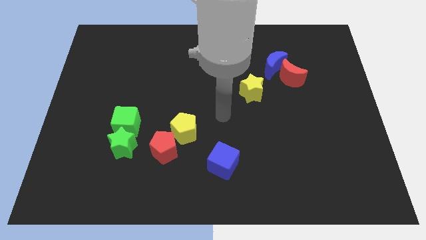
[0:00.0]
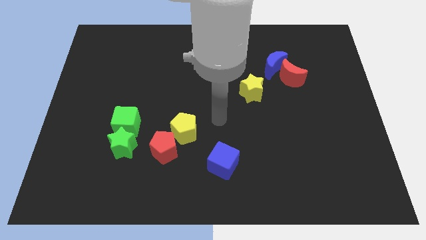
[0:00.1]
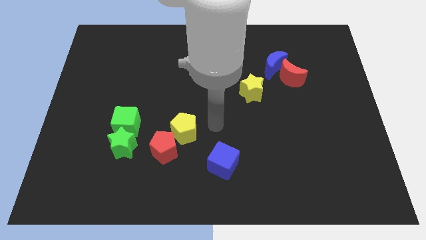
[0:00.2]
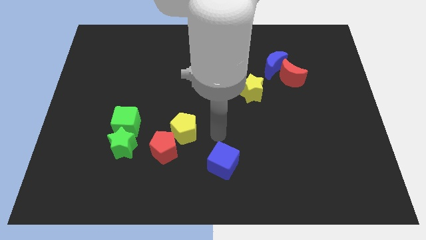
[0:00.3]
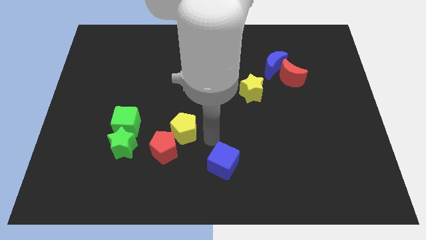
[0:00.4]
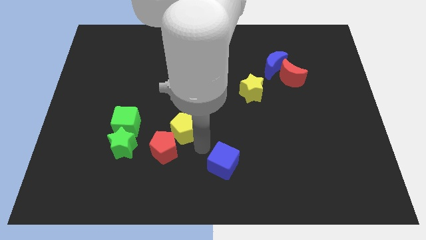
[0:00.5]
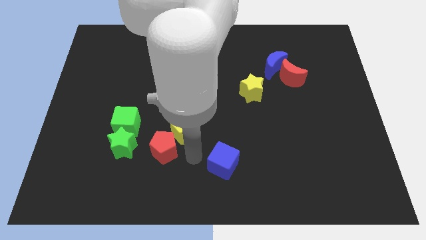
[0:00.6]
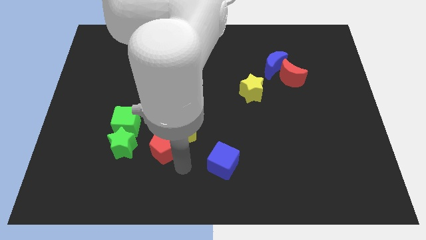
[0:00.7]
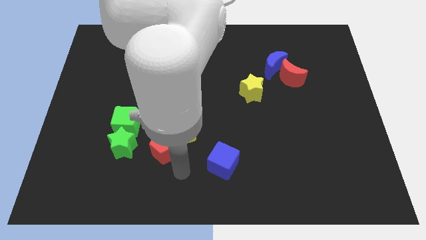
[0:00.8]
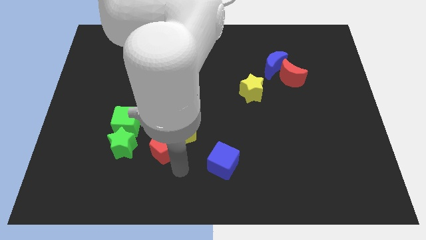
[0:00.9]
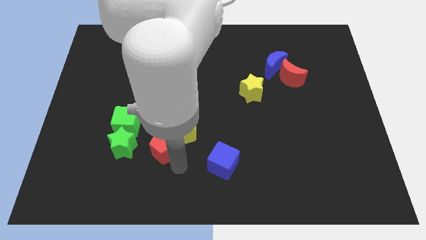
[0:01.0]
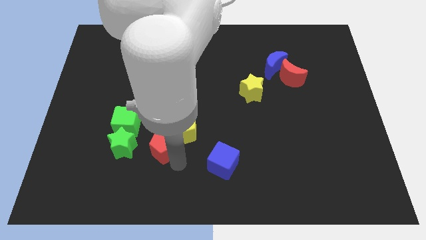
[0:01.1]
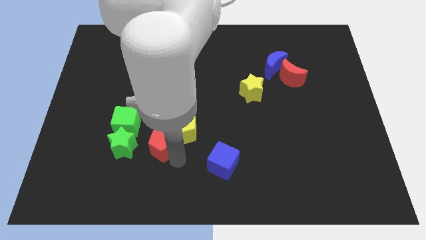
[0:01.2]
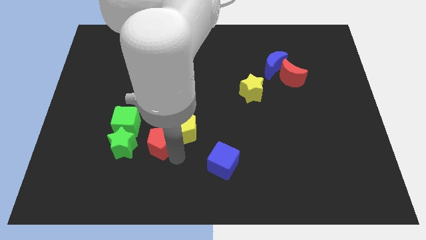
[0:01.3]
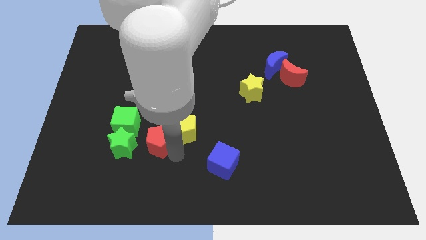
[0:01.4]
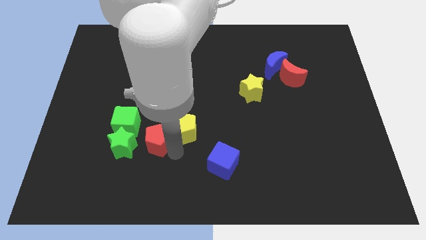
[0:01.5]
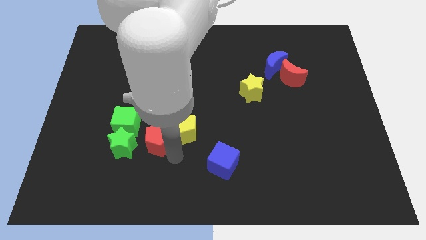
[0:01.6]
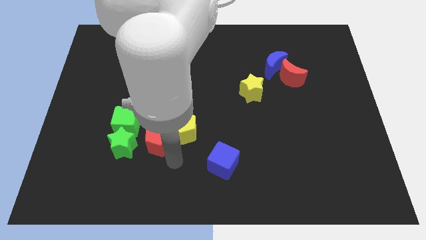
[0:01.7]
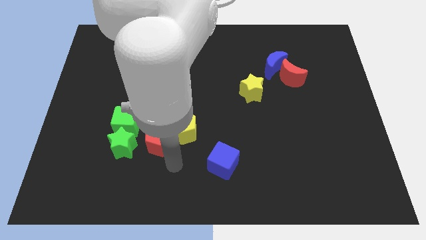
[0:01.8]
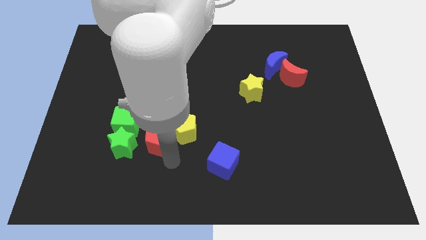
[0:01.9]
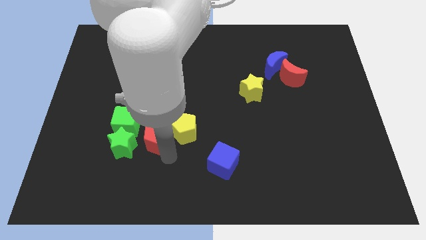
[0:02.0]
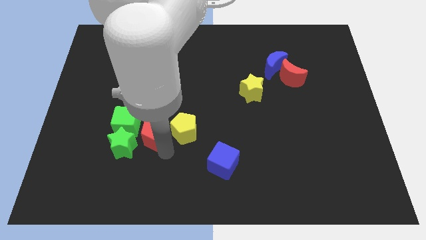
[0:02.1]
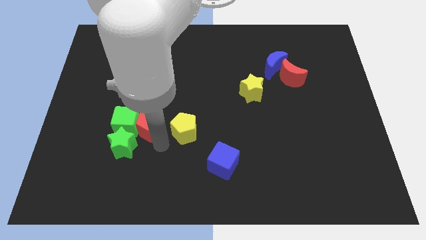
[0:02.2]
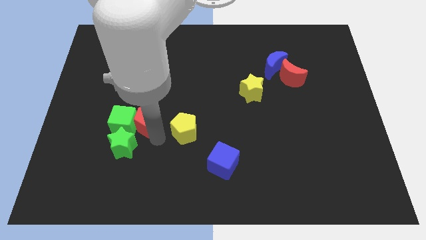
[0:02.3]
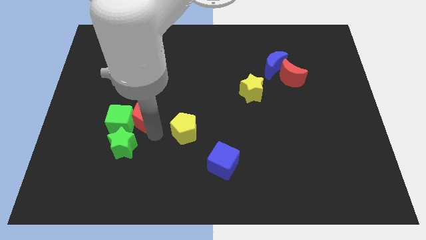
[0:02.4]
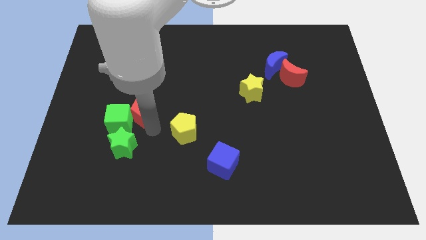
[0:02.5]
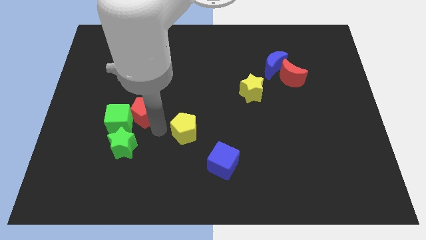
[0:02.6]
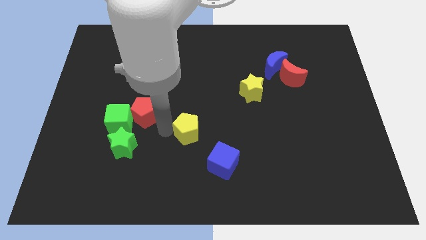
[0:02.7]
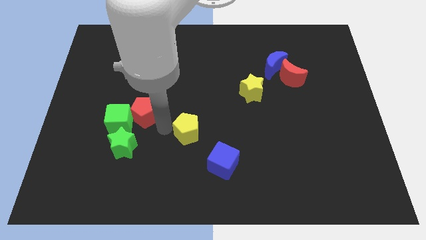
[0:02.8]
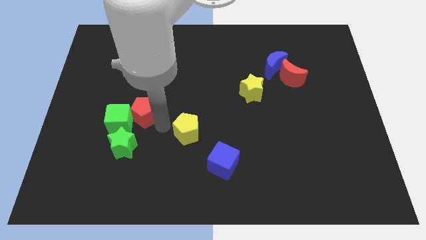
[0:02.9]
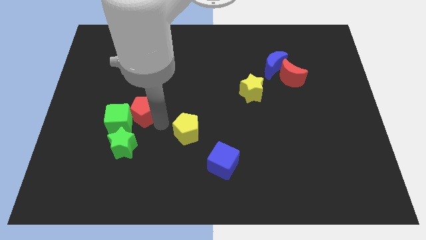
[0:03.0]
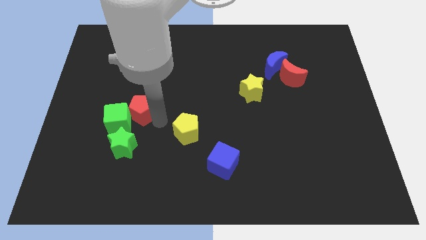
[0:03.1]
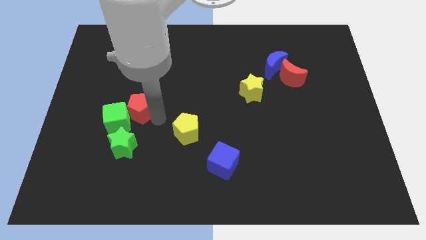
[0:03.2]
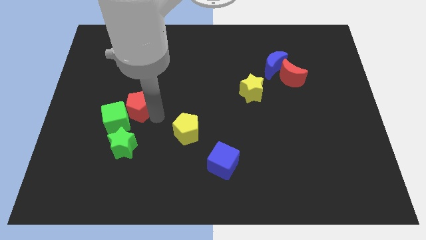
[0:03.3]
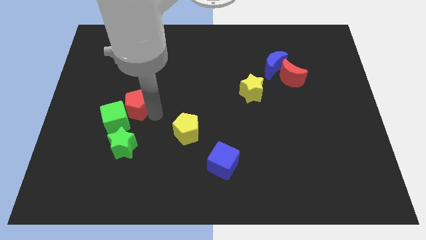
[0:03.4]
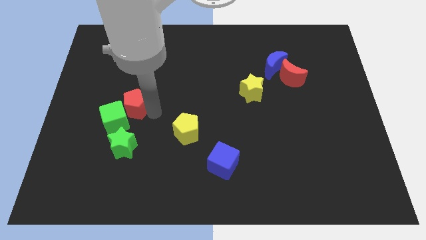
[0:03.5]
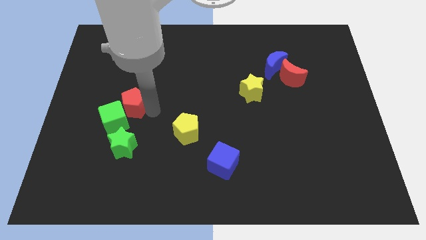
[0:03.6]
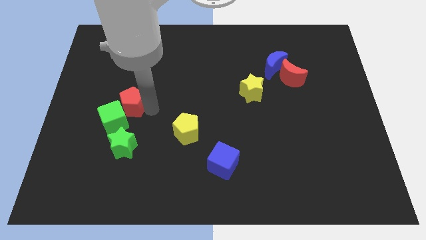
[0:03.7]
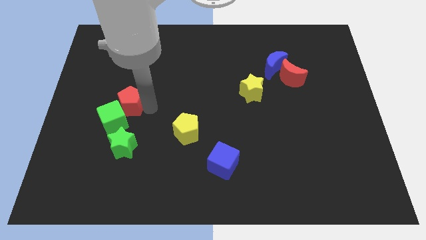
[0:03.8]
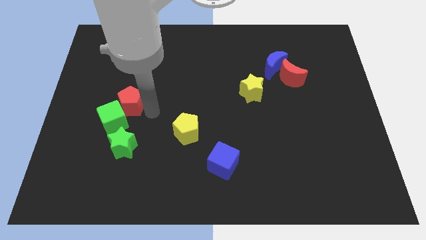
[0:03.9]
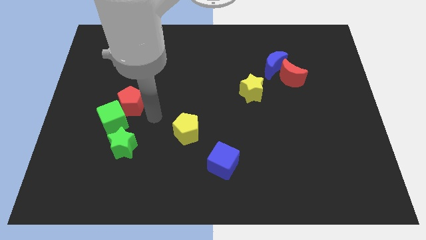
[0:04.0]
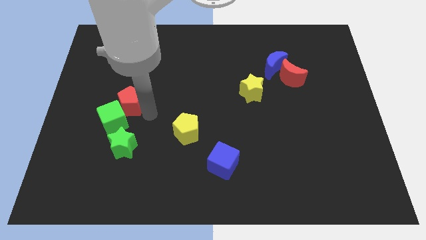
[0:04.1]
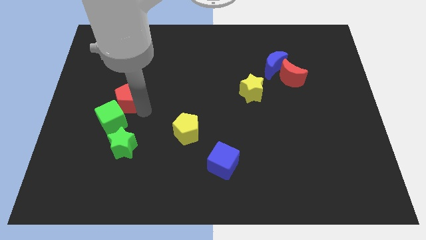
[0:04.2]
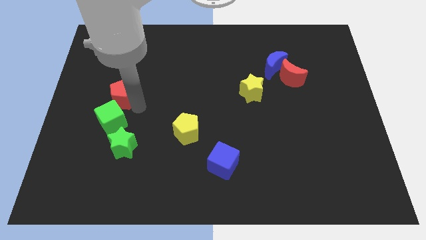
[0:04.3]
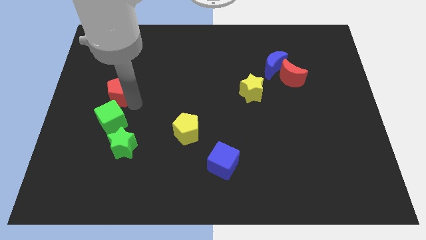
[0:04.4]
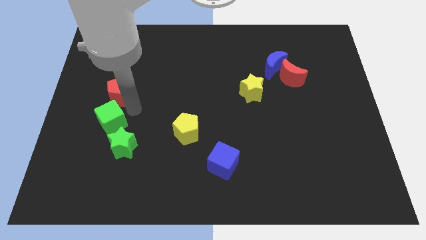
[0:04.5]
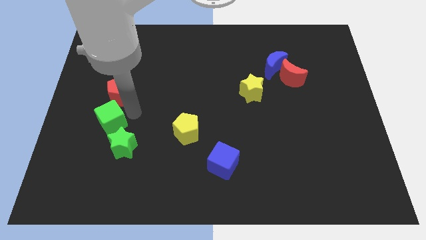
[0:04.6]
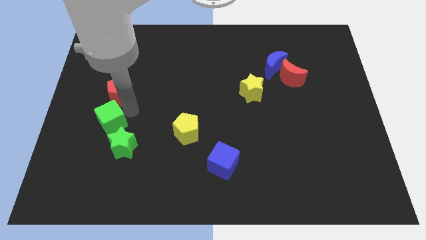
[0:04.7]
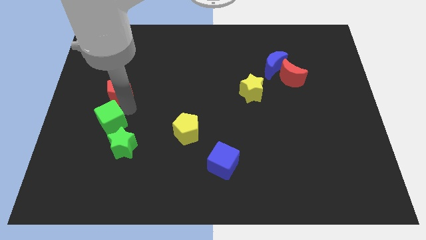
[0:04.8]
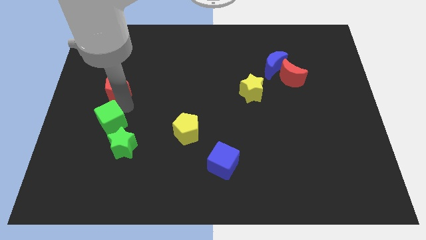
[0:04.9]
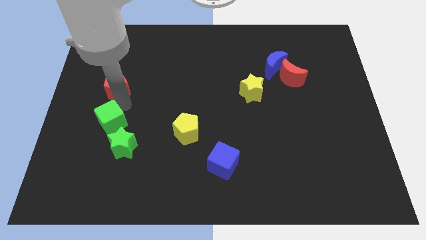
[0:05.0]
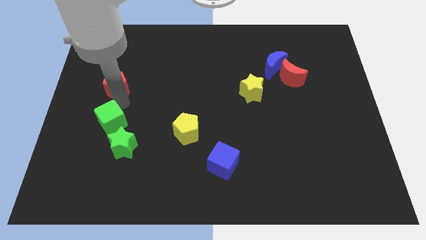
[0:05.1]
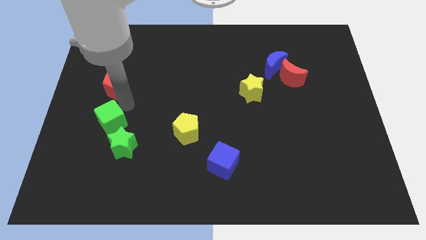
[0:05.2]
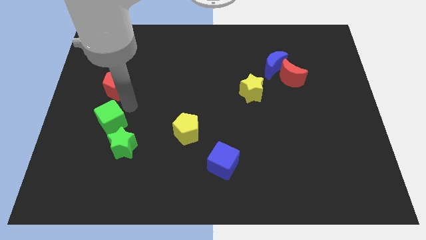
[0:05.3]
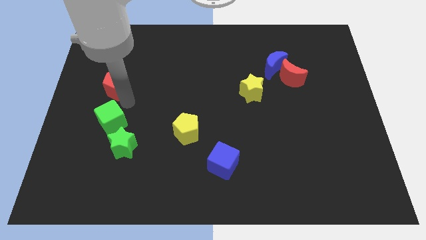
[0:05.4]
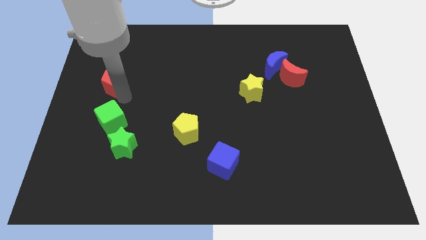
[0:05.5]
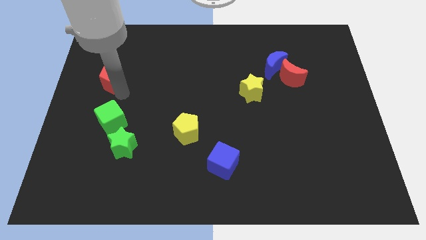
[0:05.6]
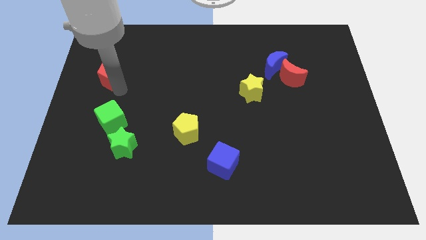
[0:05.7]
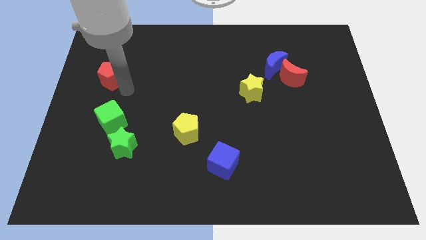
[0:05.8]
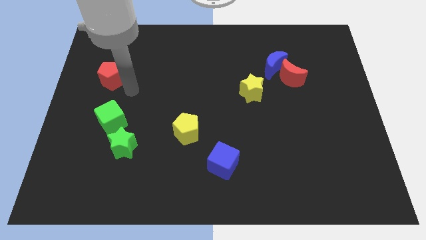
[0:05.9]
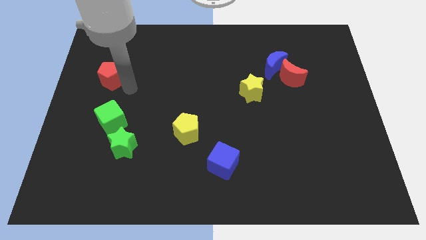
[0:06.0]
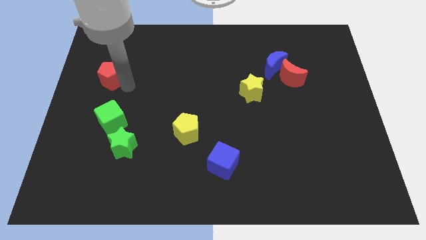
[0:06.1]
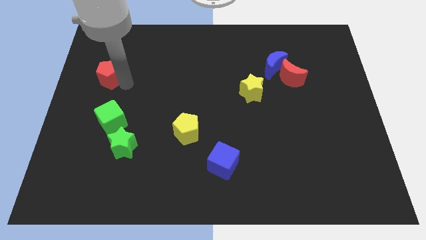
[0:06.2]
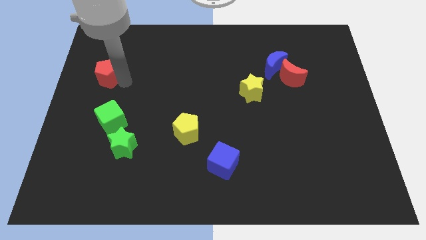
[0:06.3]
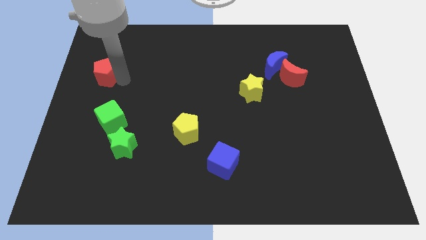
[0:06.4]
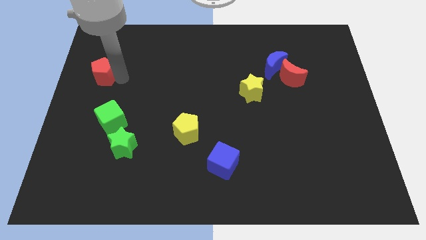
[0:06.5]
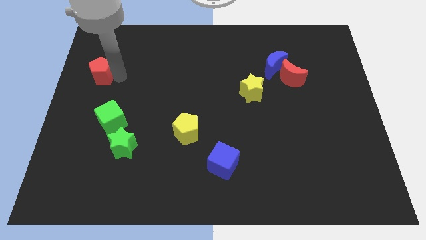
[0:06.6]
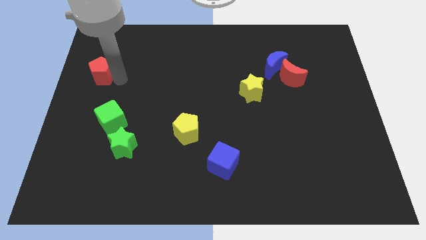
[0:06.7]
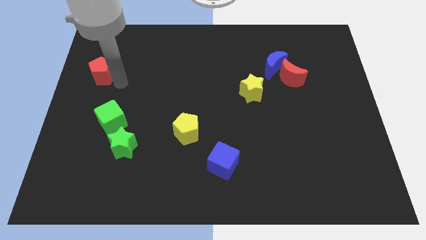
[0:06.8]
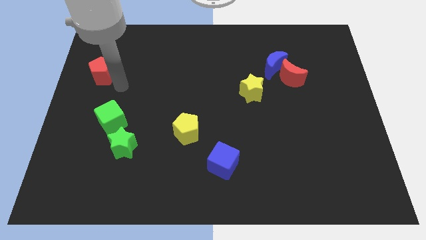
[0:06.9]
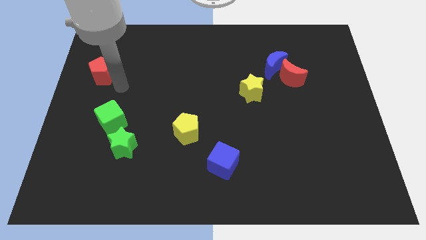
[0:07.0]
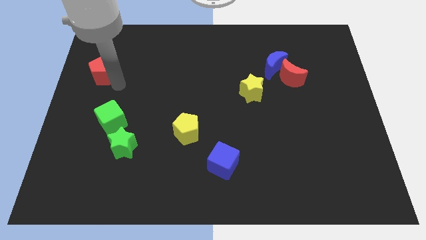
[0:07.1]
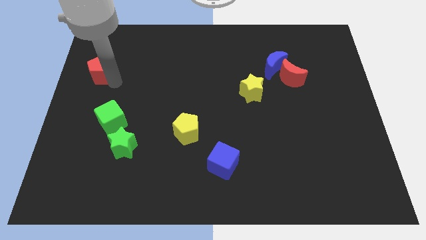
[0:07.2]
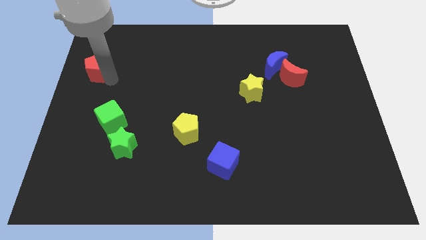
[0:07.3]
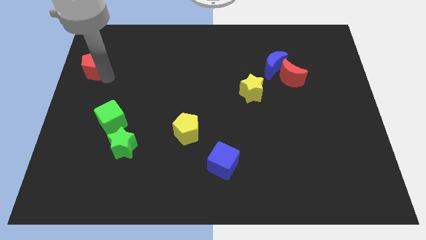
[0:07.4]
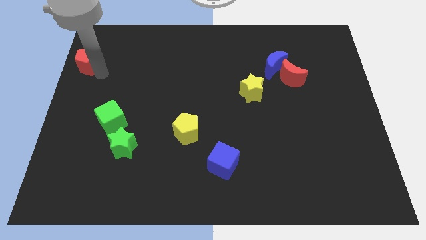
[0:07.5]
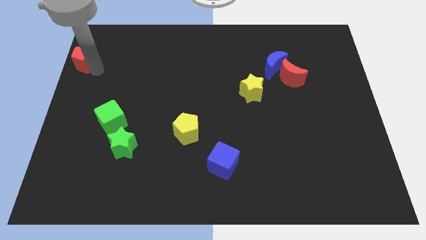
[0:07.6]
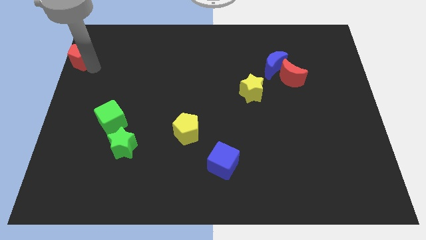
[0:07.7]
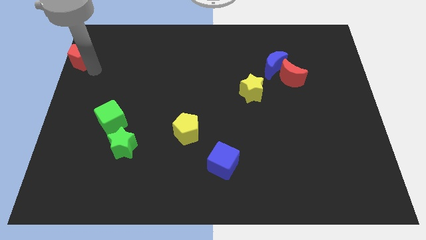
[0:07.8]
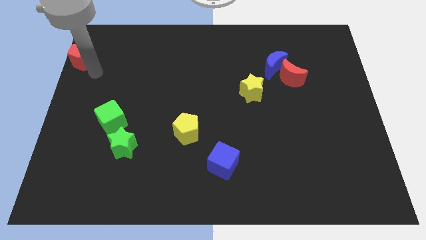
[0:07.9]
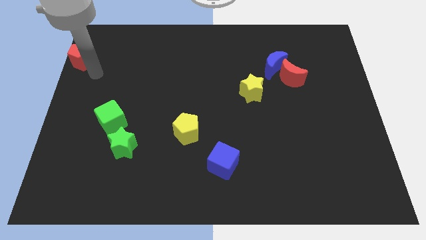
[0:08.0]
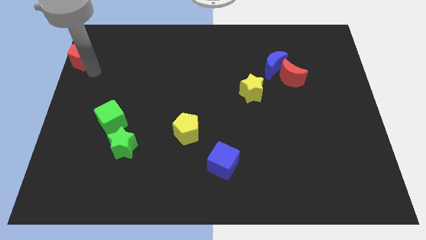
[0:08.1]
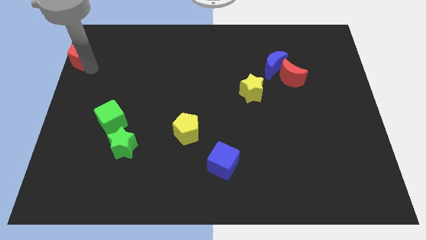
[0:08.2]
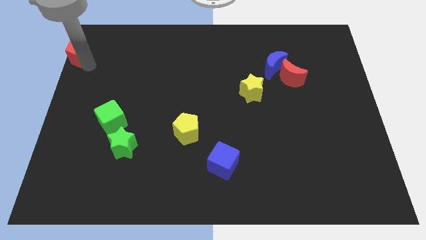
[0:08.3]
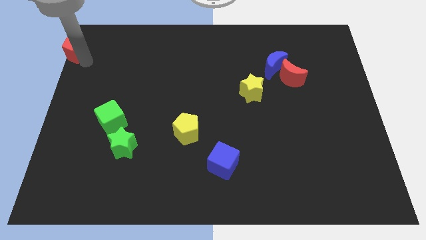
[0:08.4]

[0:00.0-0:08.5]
move the red pentagon to the top left of the board
